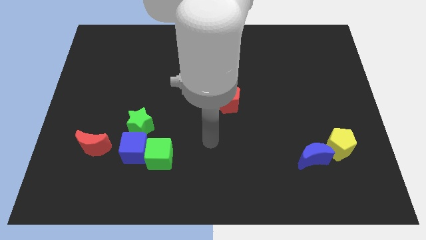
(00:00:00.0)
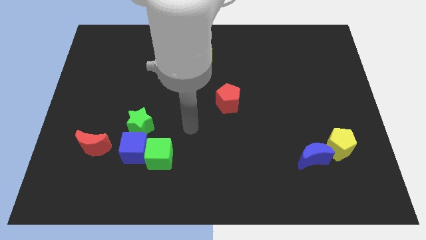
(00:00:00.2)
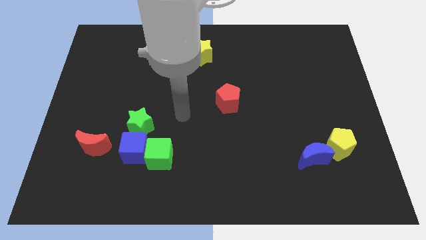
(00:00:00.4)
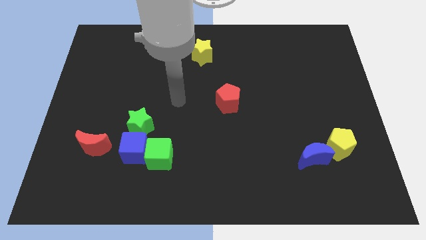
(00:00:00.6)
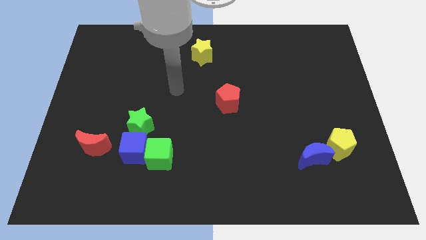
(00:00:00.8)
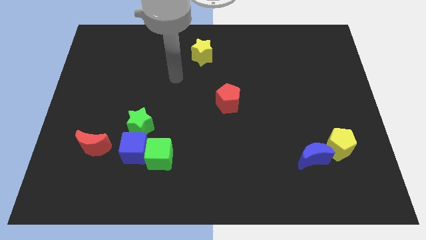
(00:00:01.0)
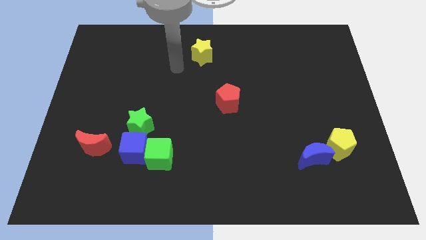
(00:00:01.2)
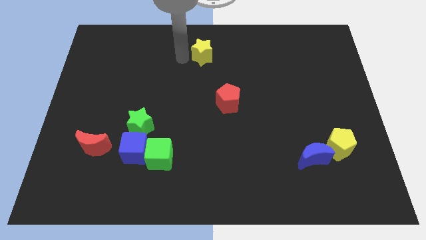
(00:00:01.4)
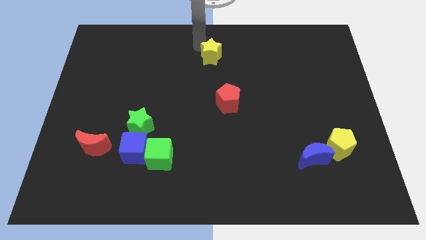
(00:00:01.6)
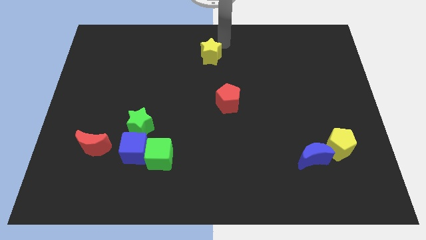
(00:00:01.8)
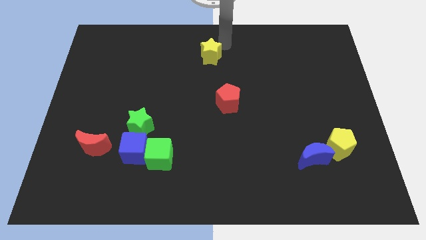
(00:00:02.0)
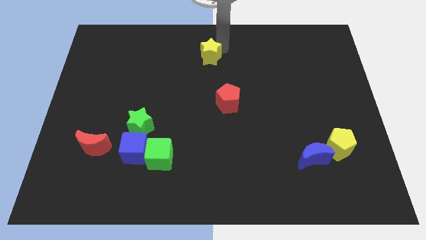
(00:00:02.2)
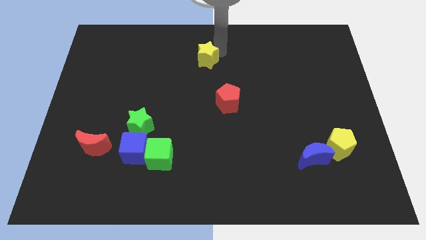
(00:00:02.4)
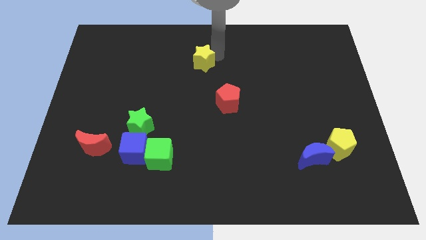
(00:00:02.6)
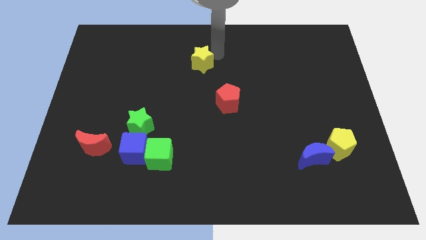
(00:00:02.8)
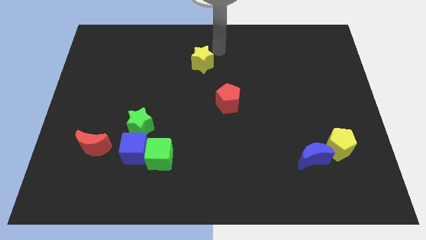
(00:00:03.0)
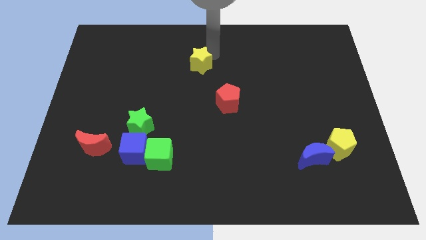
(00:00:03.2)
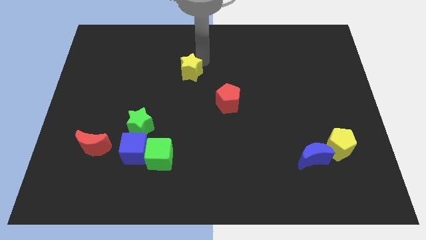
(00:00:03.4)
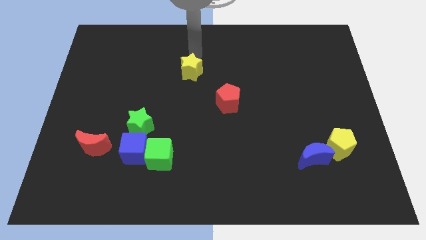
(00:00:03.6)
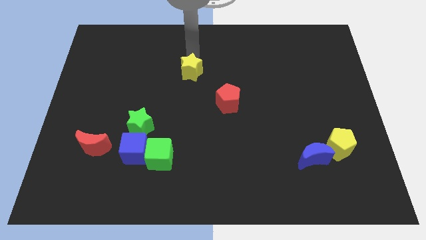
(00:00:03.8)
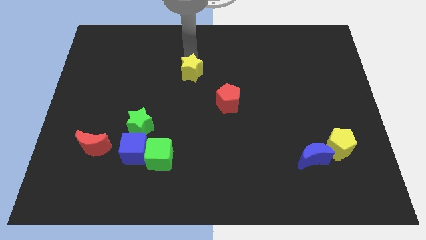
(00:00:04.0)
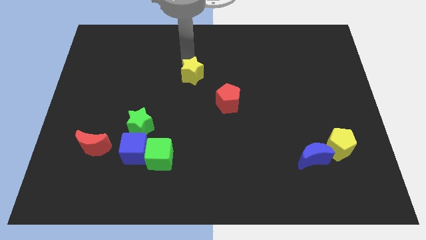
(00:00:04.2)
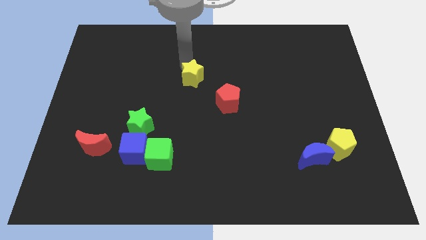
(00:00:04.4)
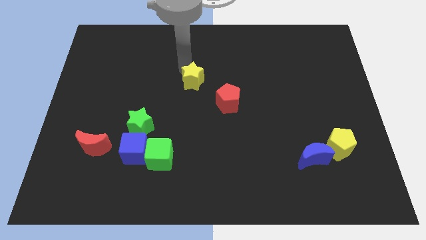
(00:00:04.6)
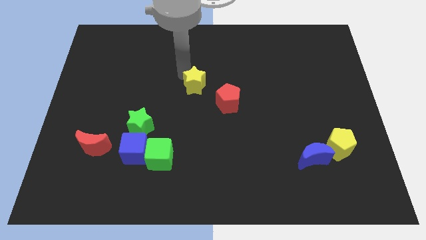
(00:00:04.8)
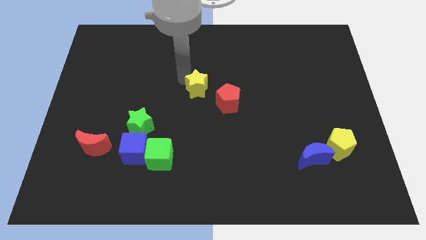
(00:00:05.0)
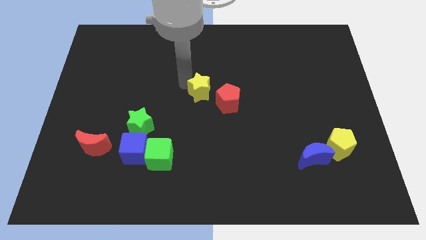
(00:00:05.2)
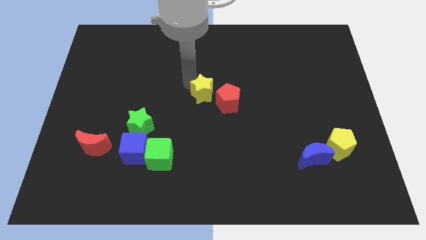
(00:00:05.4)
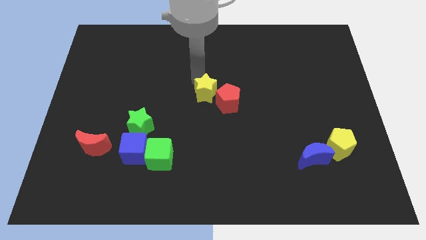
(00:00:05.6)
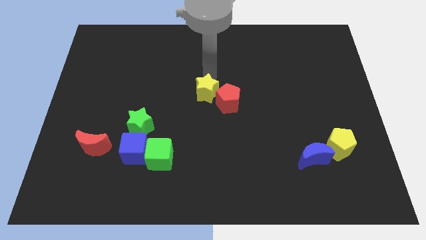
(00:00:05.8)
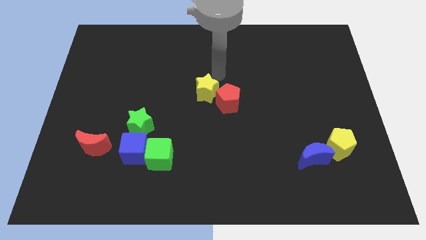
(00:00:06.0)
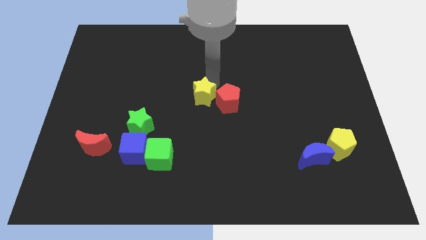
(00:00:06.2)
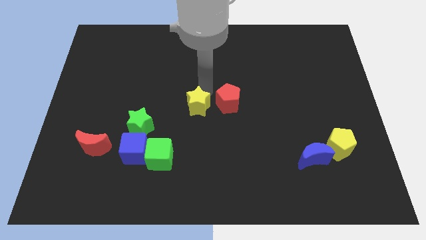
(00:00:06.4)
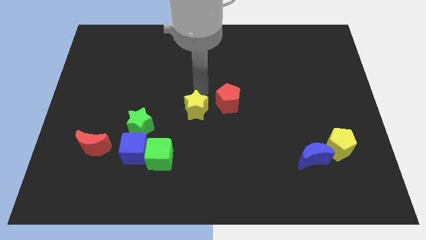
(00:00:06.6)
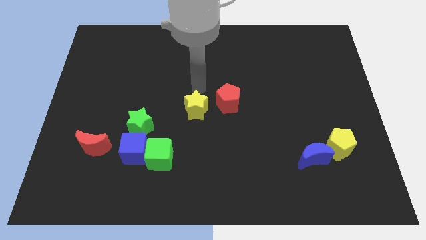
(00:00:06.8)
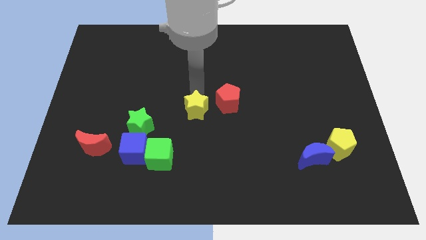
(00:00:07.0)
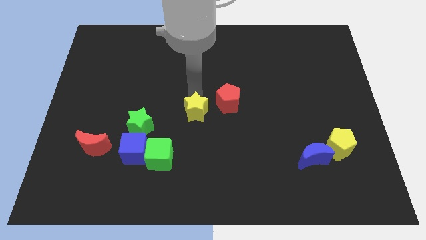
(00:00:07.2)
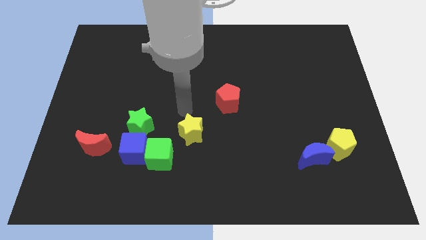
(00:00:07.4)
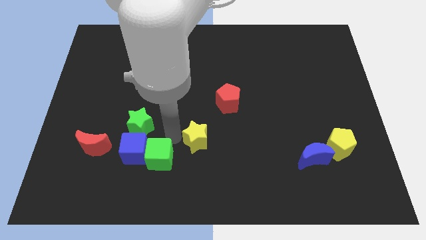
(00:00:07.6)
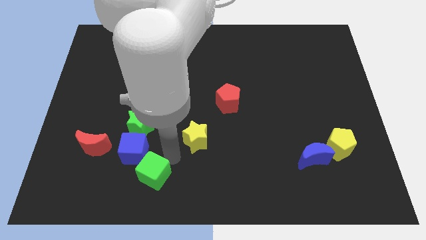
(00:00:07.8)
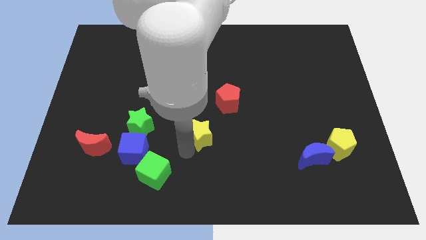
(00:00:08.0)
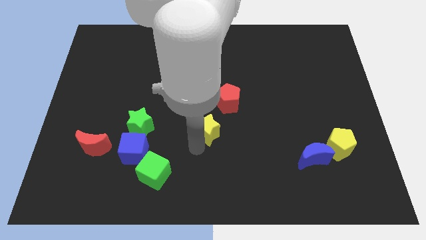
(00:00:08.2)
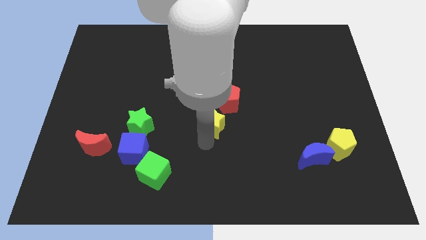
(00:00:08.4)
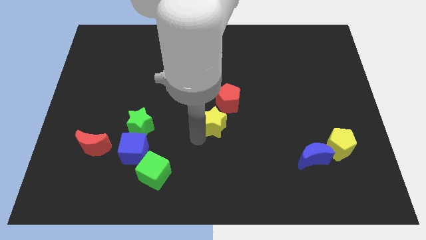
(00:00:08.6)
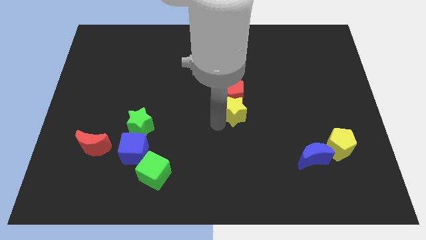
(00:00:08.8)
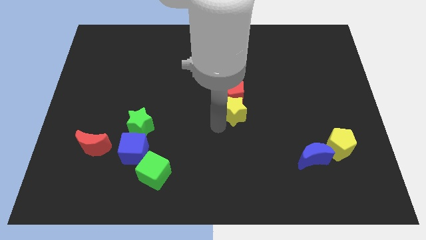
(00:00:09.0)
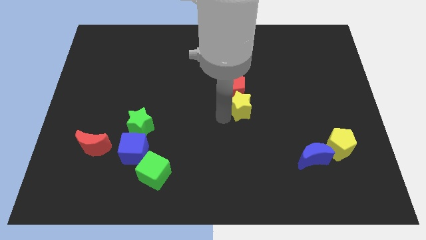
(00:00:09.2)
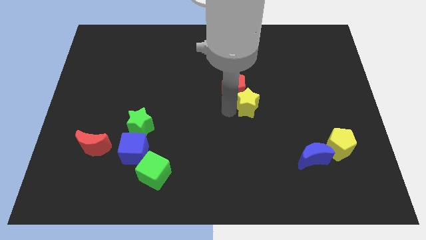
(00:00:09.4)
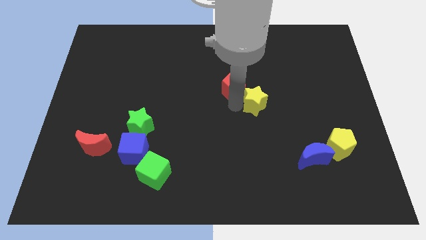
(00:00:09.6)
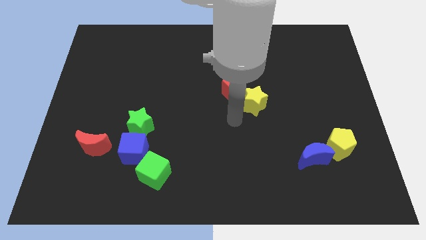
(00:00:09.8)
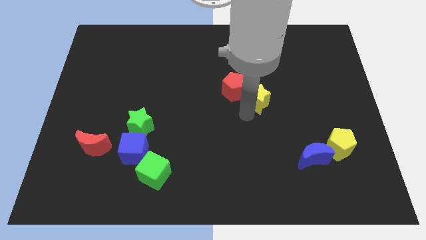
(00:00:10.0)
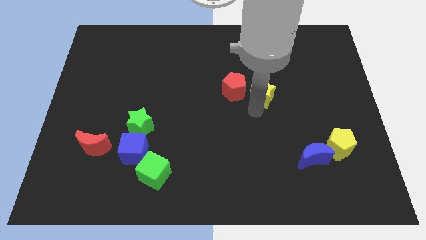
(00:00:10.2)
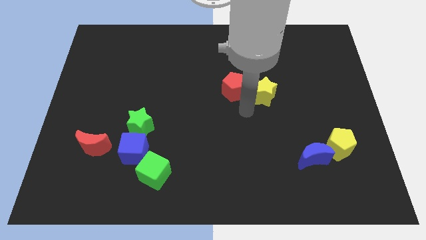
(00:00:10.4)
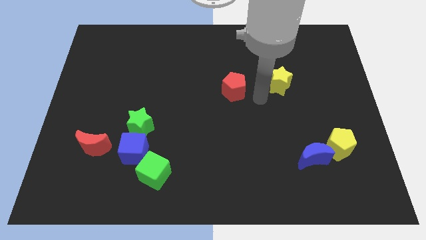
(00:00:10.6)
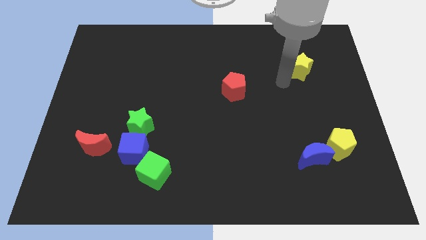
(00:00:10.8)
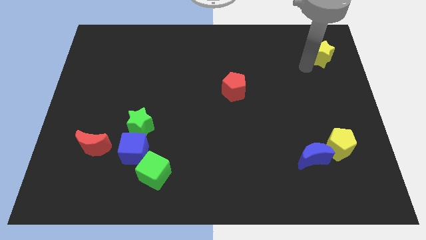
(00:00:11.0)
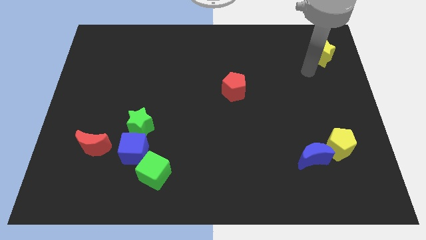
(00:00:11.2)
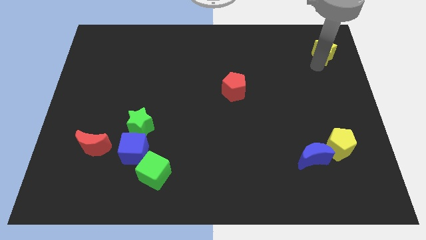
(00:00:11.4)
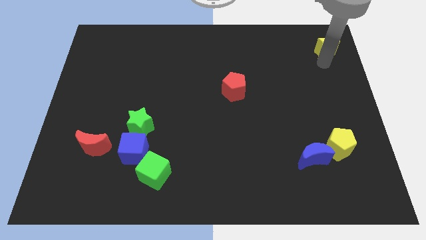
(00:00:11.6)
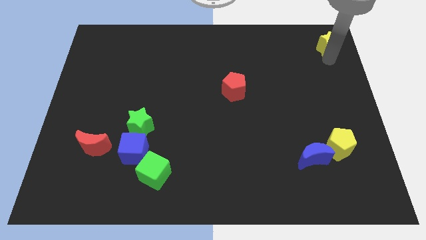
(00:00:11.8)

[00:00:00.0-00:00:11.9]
move the yellow star to the top right corner
